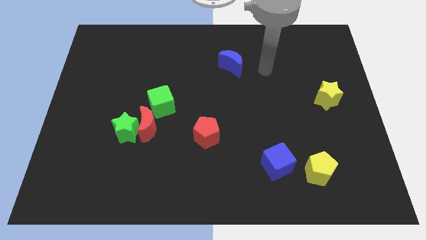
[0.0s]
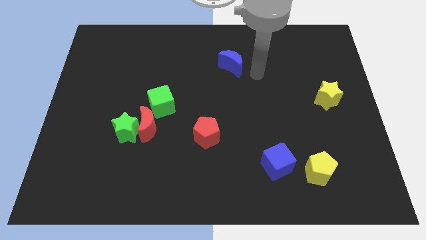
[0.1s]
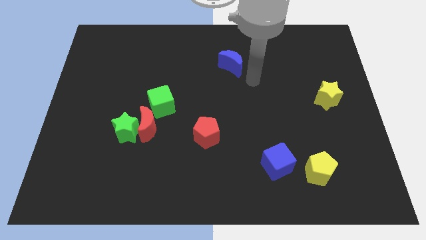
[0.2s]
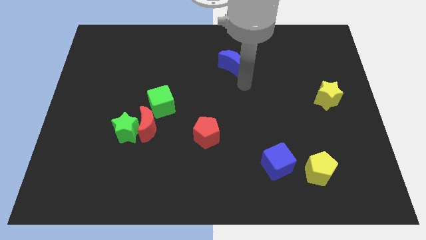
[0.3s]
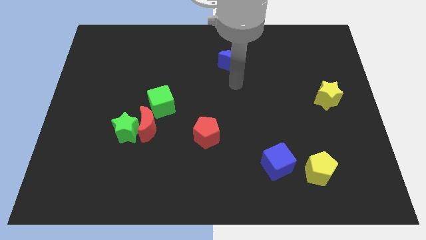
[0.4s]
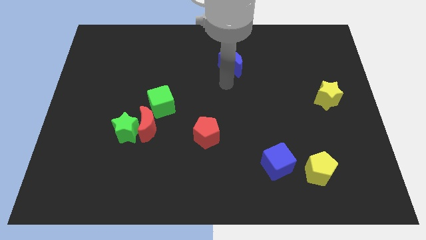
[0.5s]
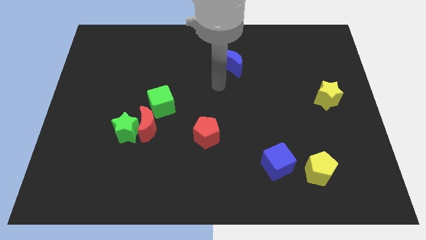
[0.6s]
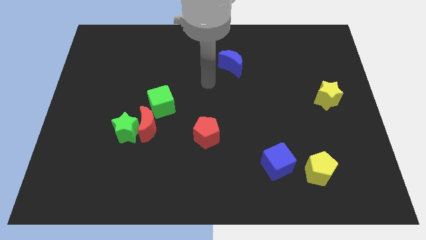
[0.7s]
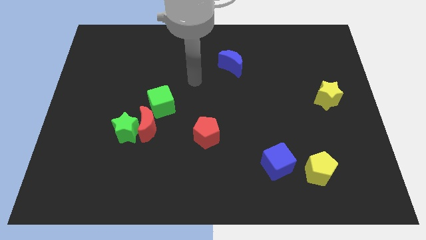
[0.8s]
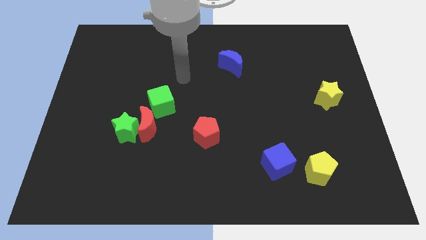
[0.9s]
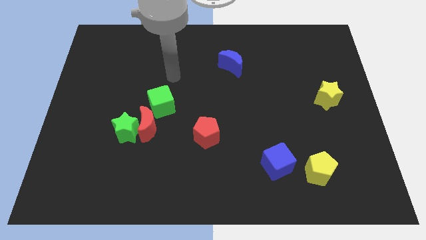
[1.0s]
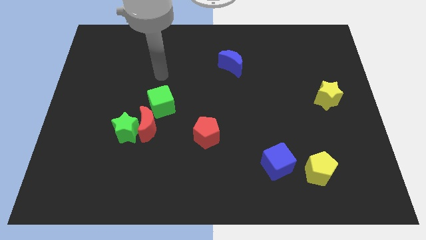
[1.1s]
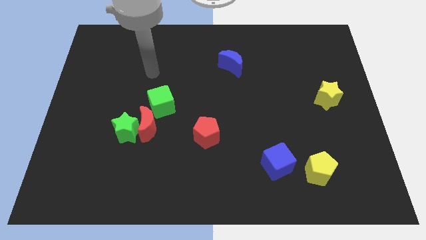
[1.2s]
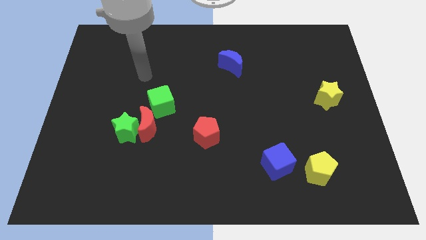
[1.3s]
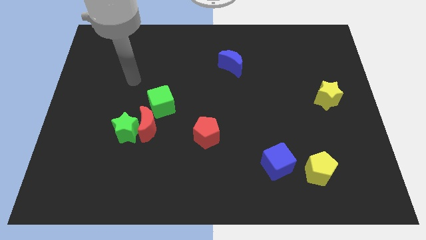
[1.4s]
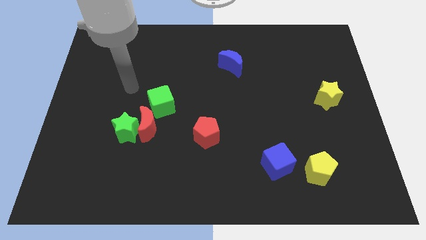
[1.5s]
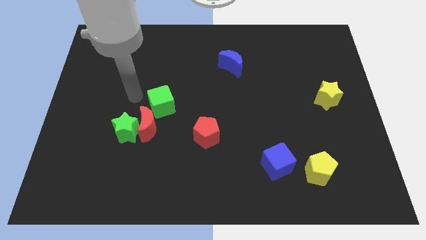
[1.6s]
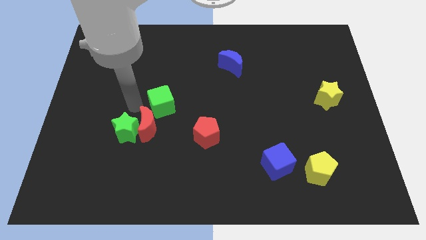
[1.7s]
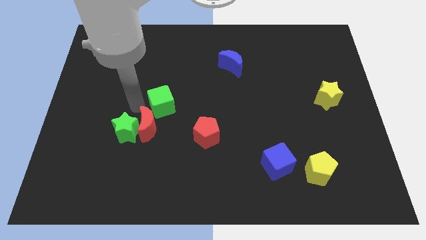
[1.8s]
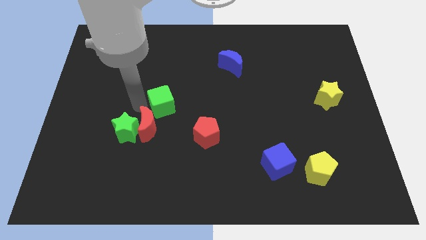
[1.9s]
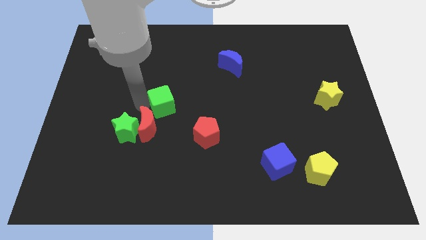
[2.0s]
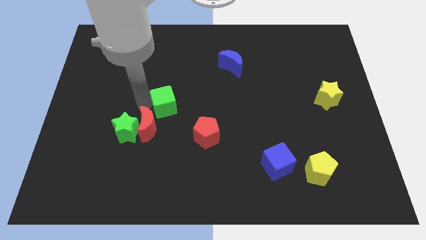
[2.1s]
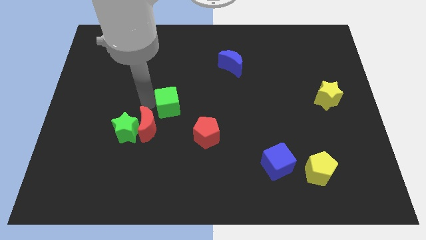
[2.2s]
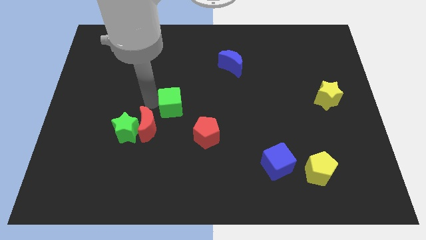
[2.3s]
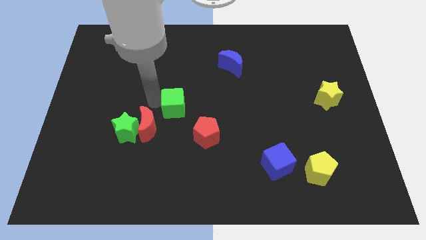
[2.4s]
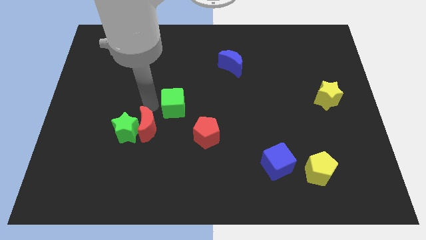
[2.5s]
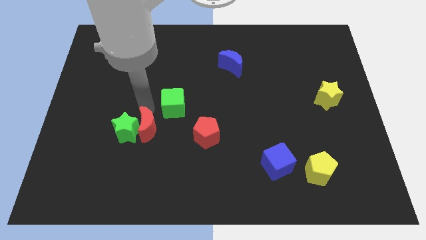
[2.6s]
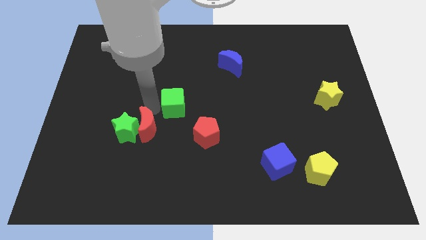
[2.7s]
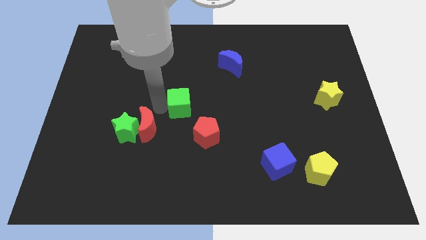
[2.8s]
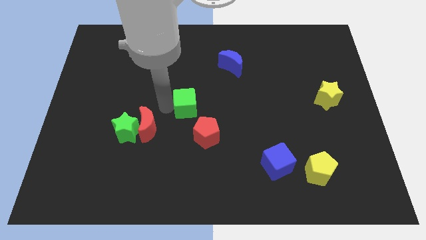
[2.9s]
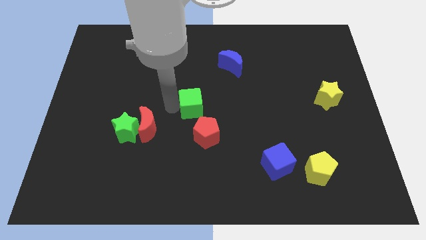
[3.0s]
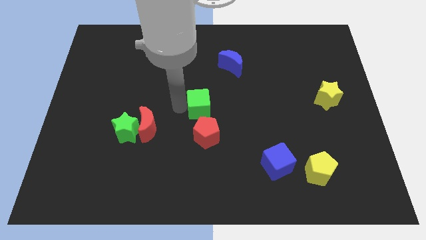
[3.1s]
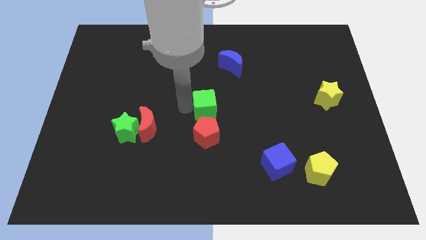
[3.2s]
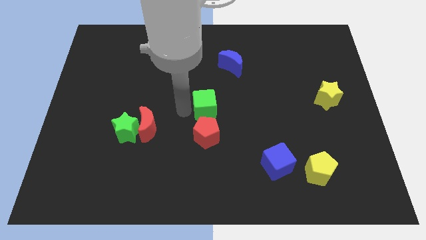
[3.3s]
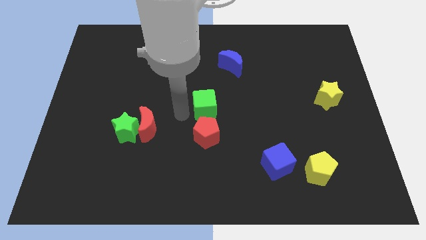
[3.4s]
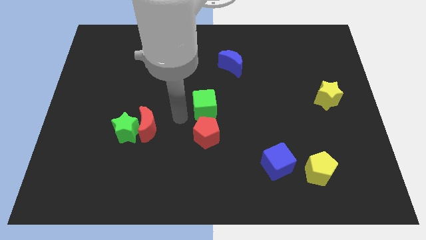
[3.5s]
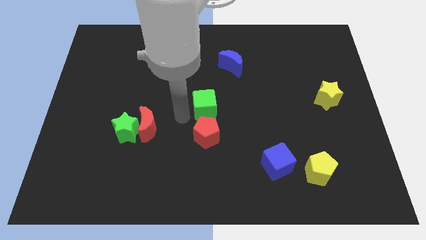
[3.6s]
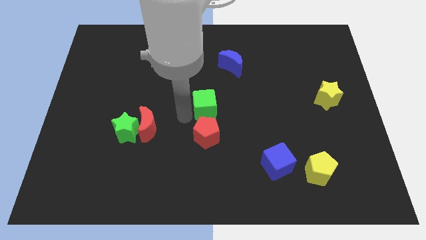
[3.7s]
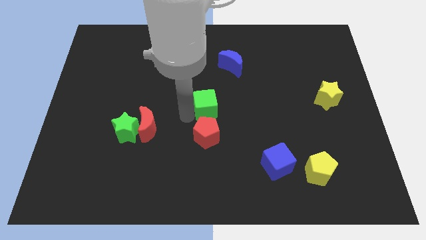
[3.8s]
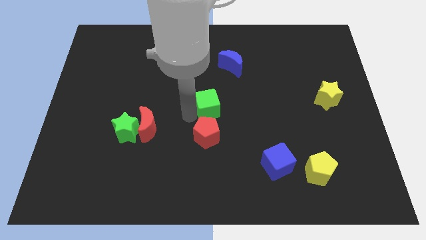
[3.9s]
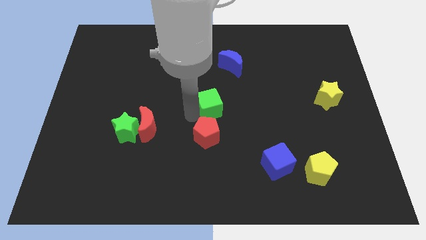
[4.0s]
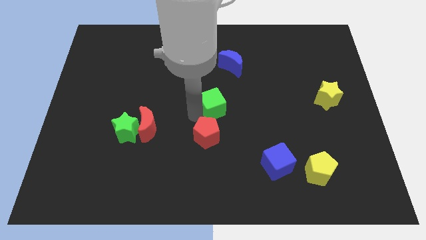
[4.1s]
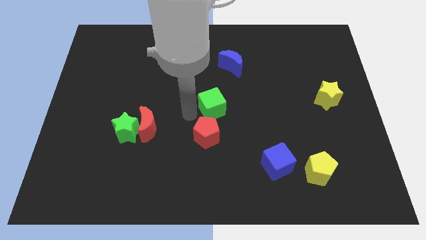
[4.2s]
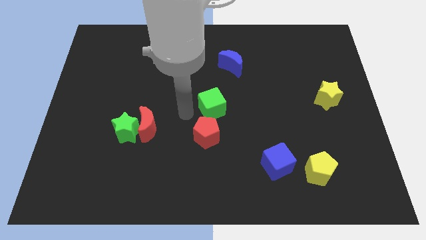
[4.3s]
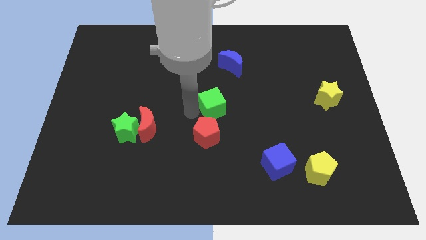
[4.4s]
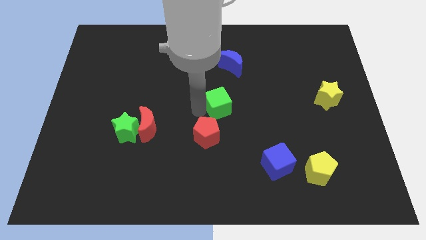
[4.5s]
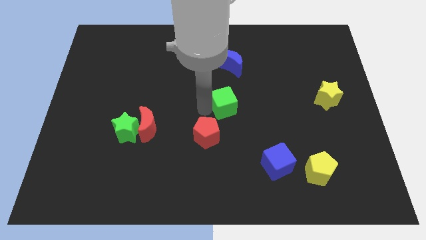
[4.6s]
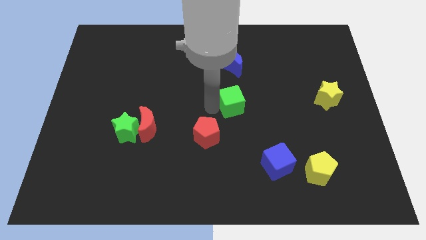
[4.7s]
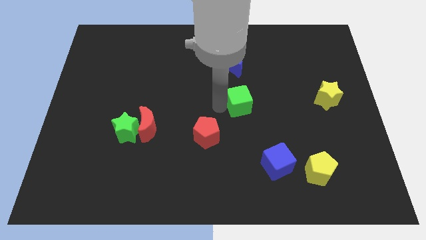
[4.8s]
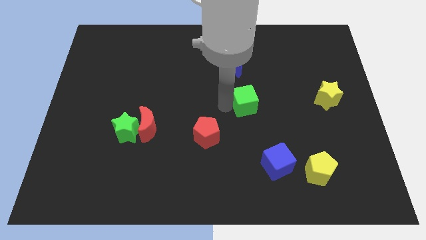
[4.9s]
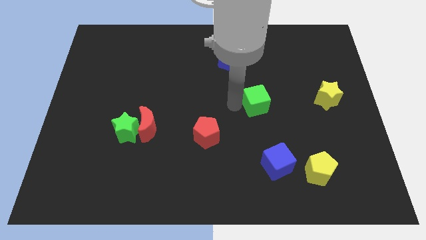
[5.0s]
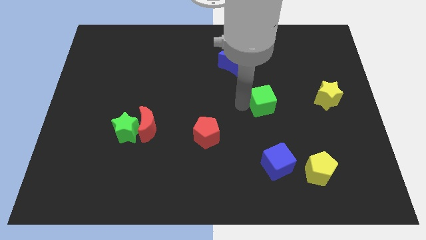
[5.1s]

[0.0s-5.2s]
put the green cube to the left of the yellow star

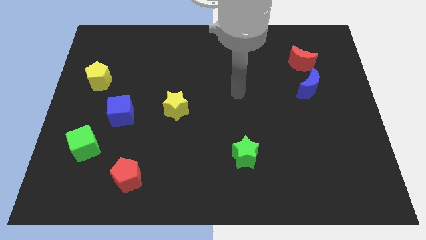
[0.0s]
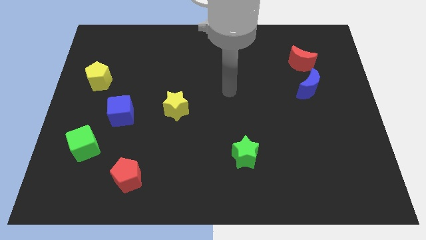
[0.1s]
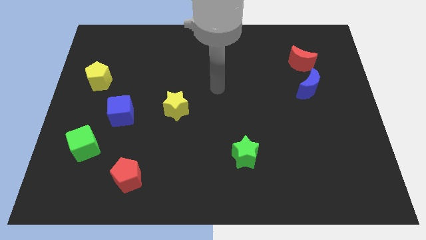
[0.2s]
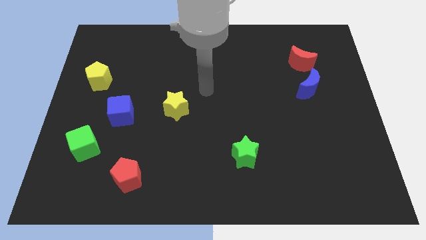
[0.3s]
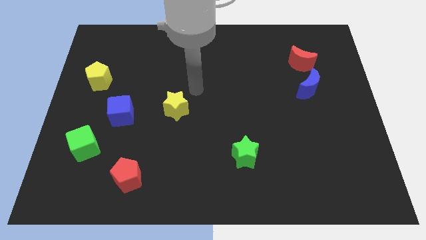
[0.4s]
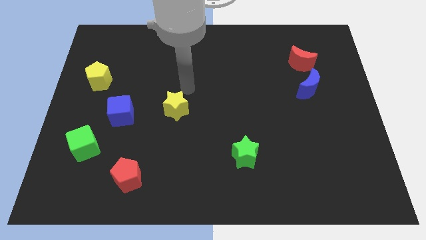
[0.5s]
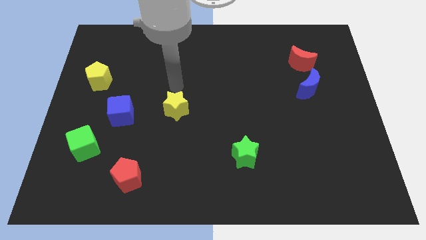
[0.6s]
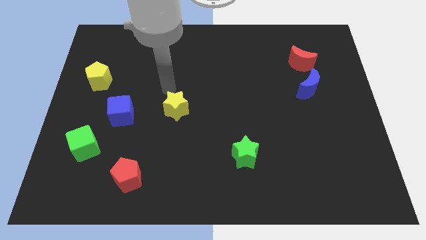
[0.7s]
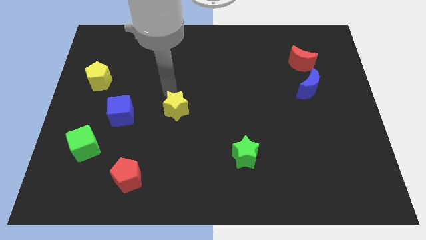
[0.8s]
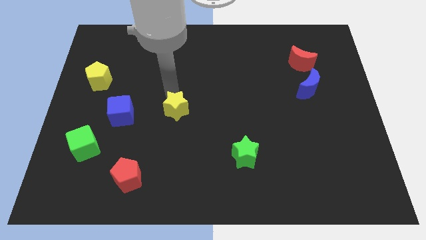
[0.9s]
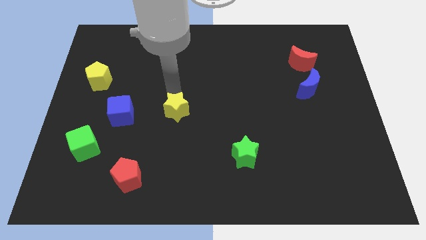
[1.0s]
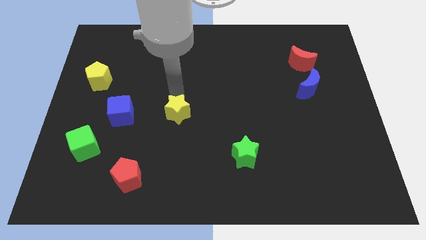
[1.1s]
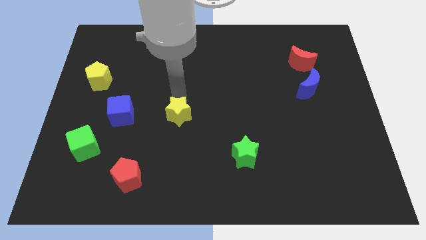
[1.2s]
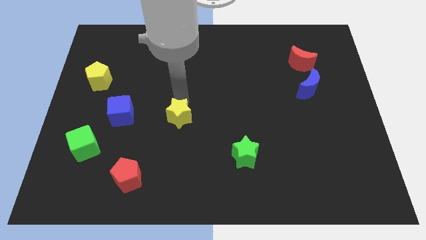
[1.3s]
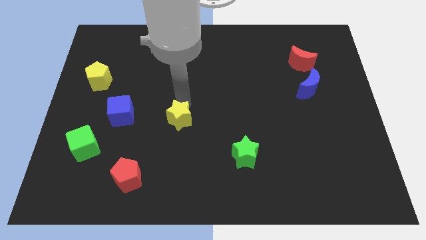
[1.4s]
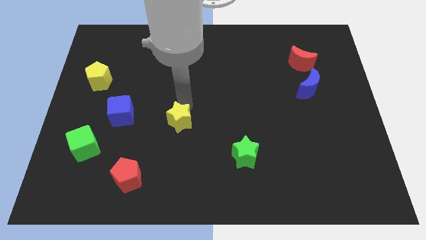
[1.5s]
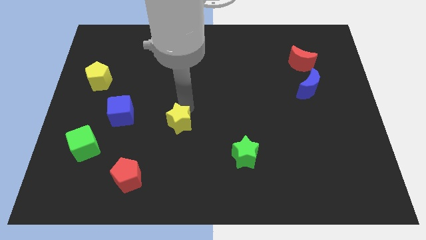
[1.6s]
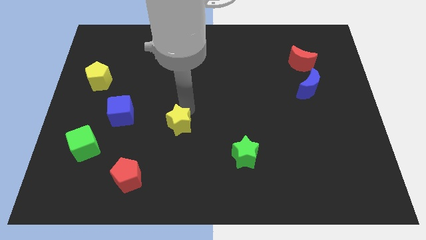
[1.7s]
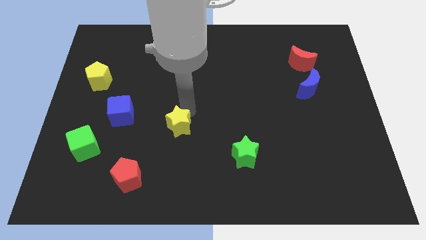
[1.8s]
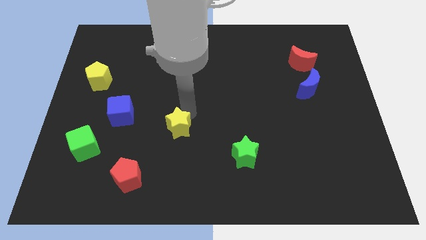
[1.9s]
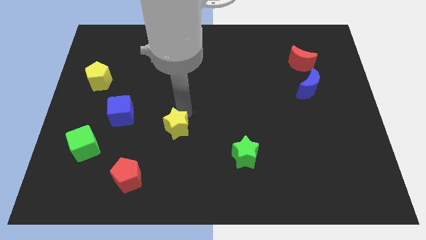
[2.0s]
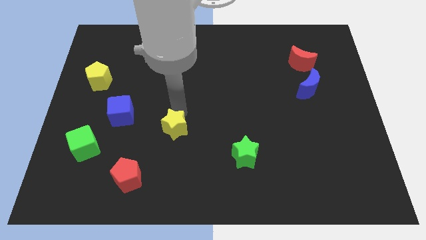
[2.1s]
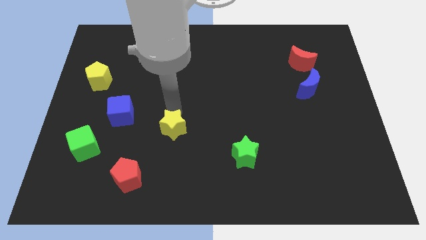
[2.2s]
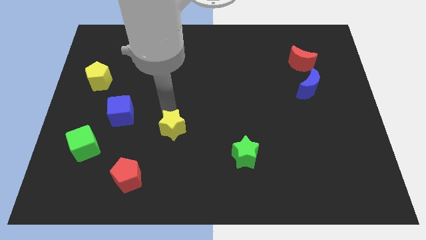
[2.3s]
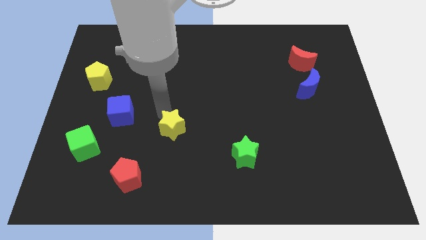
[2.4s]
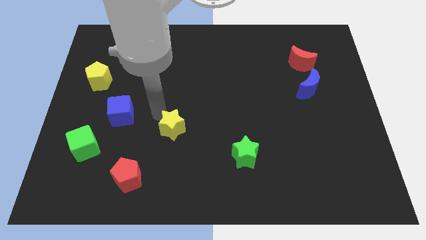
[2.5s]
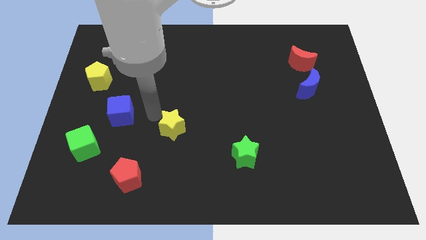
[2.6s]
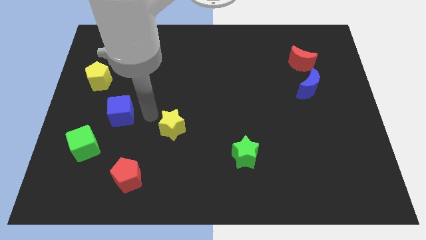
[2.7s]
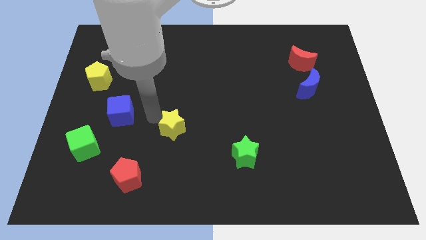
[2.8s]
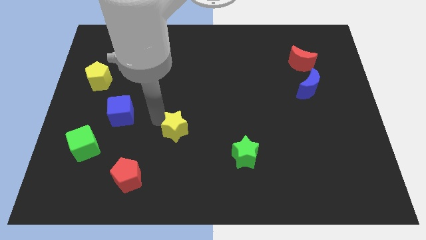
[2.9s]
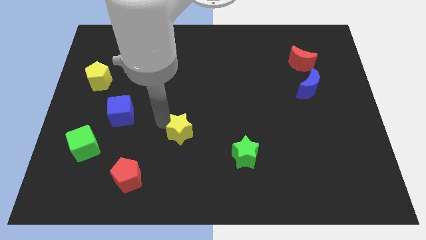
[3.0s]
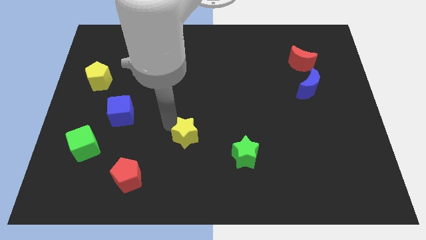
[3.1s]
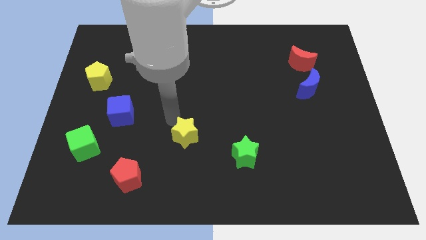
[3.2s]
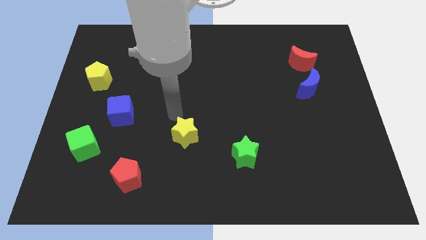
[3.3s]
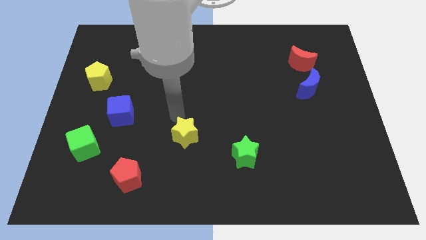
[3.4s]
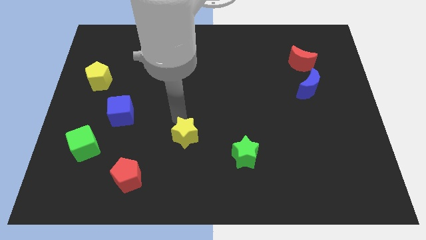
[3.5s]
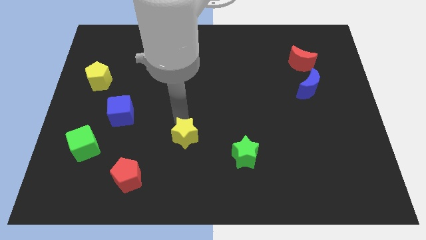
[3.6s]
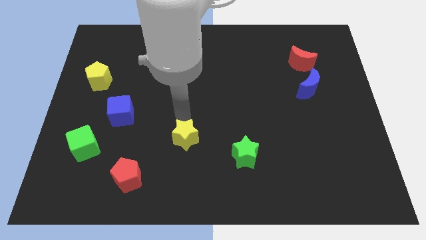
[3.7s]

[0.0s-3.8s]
push the yellow star left of the green star
